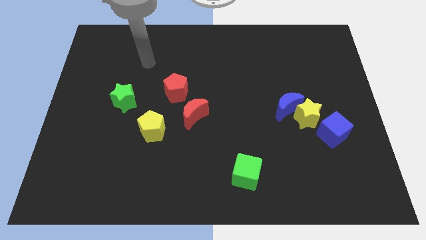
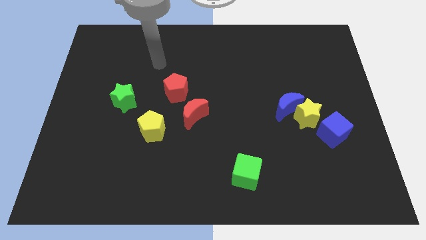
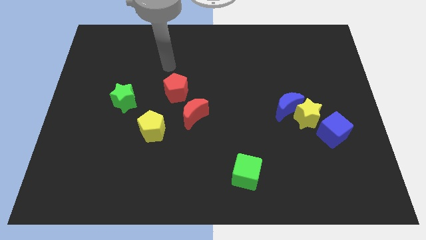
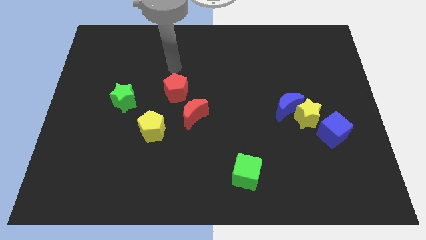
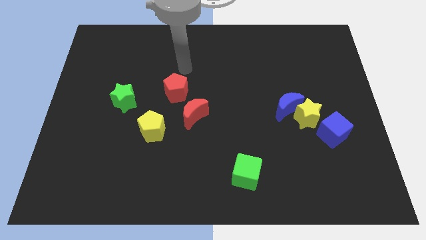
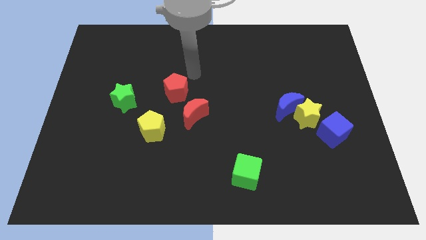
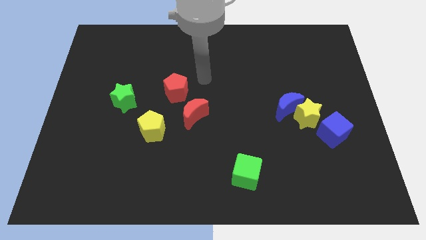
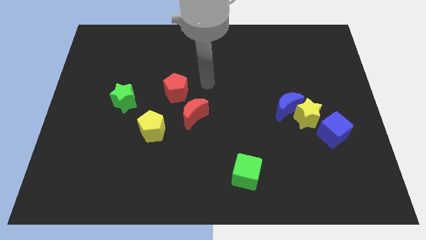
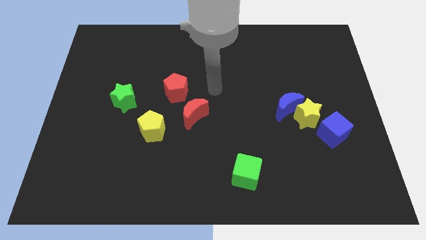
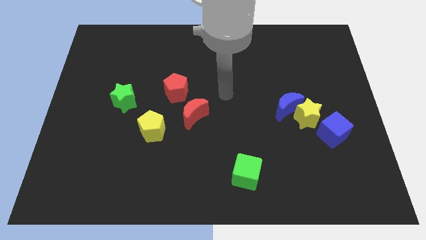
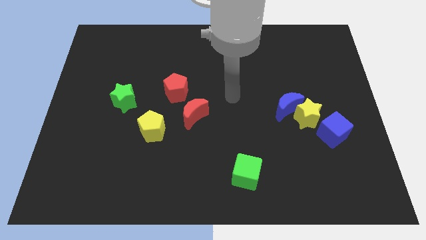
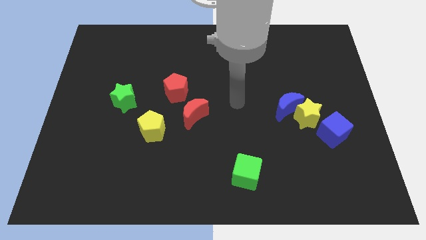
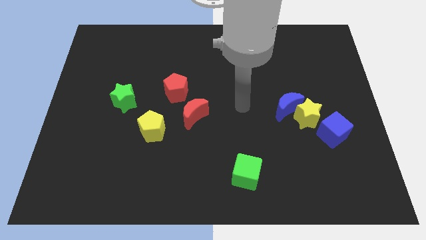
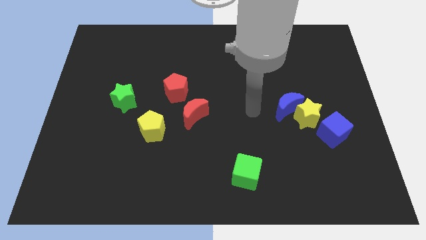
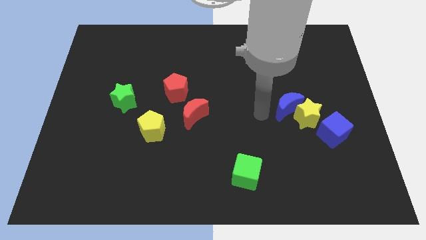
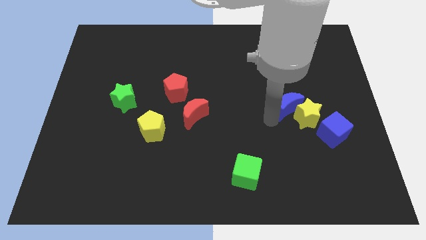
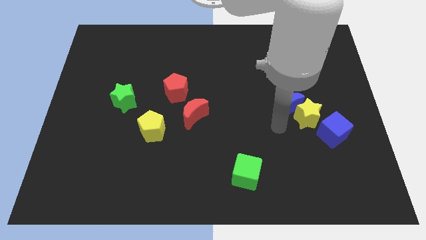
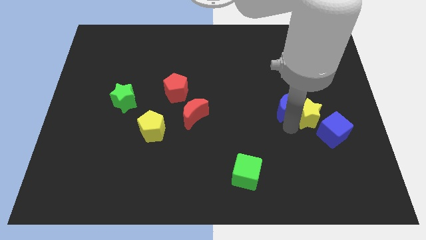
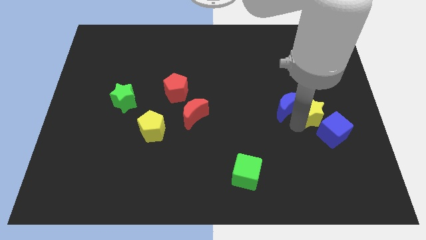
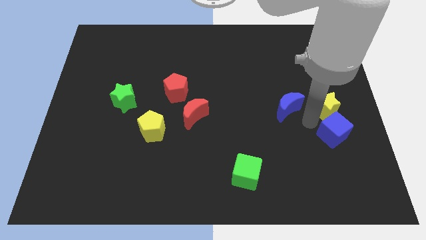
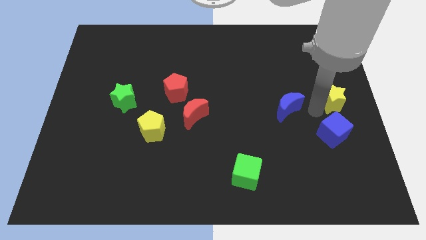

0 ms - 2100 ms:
pull the blue moon apart from the yellow star

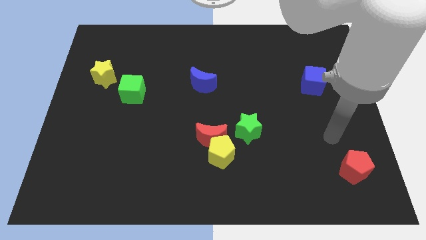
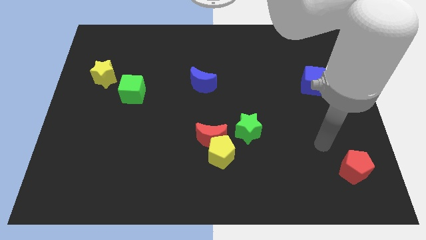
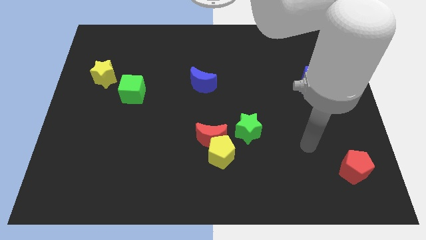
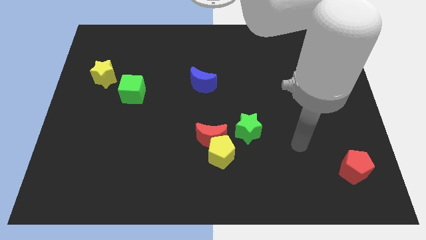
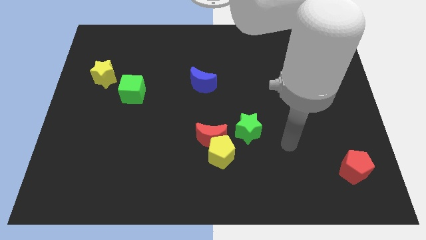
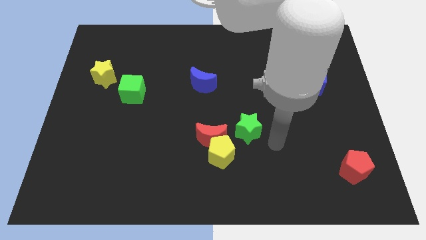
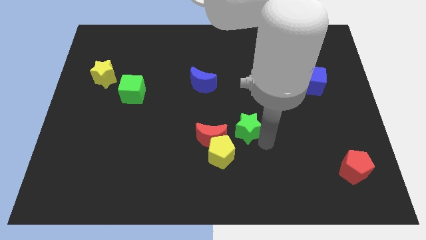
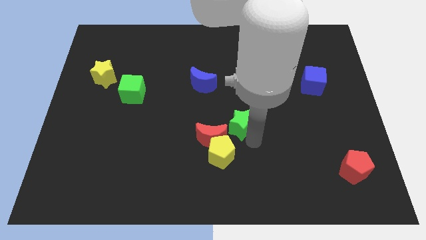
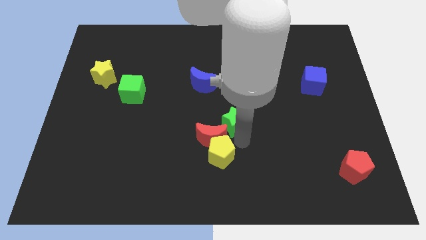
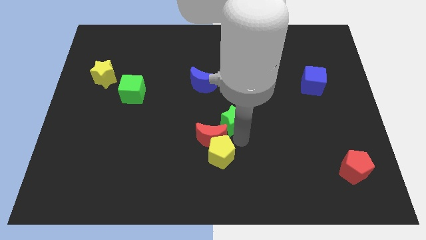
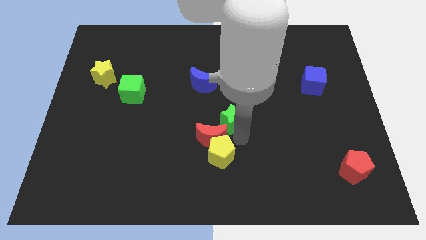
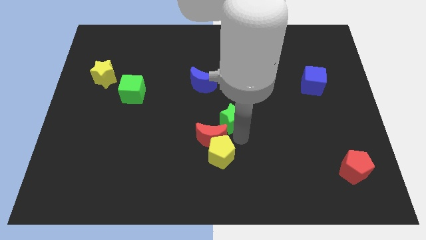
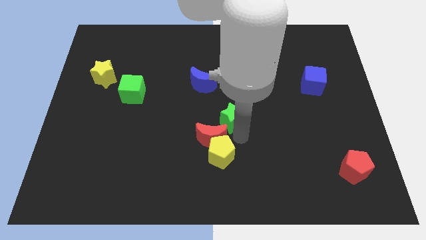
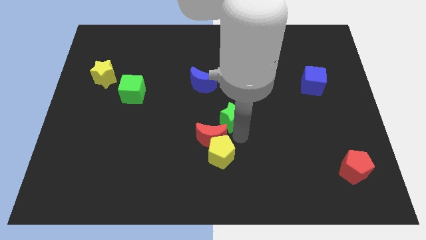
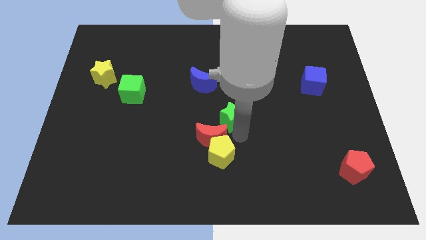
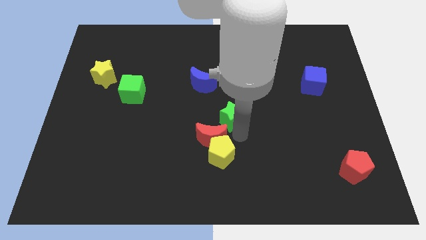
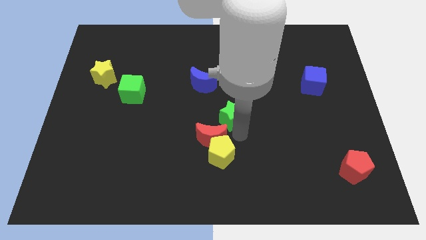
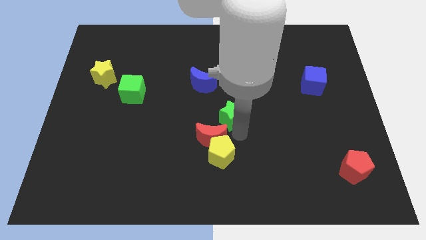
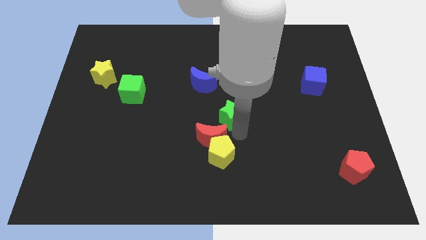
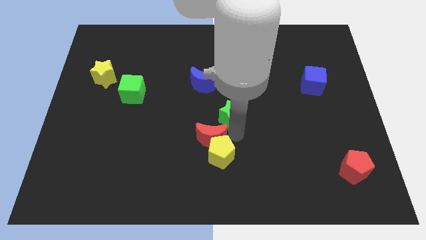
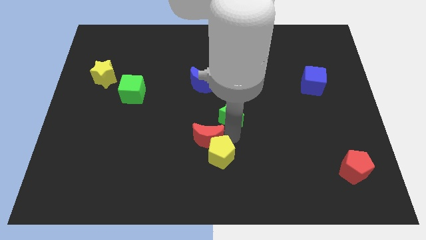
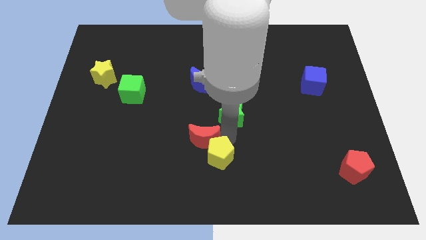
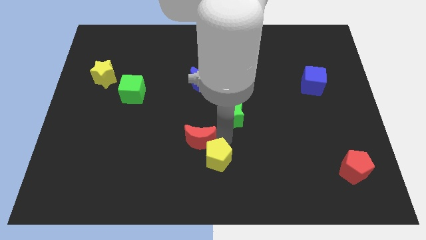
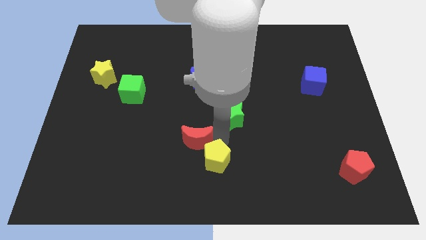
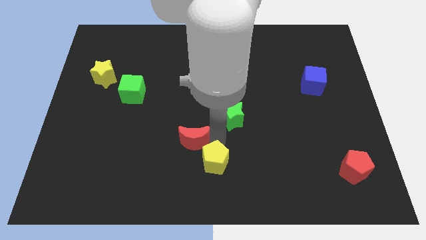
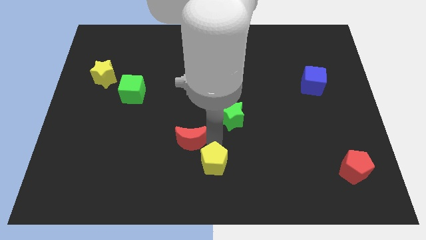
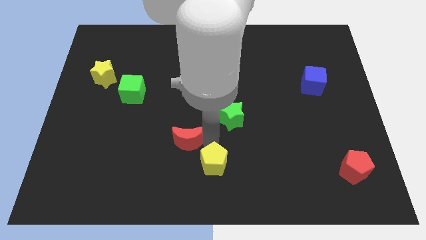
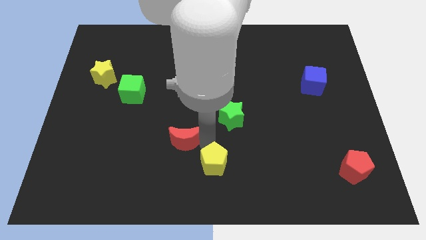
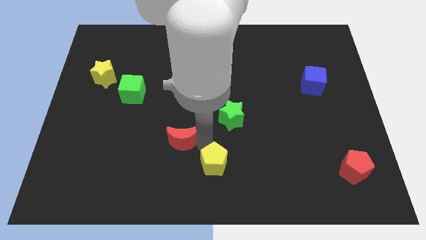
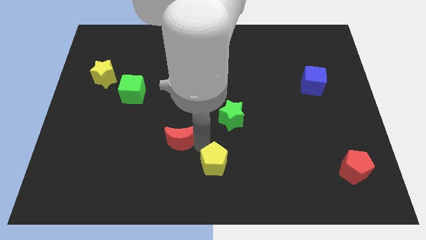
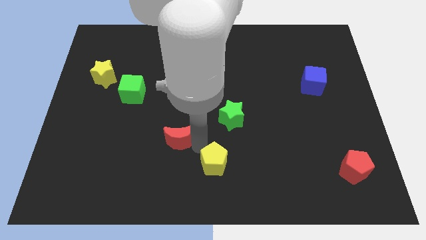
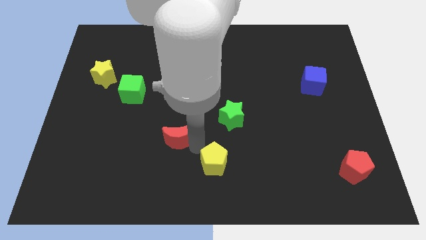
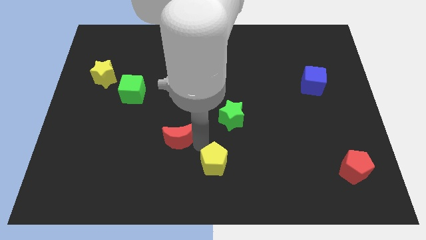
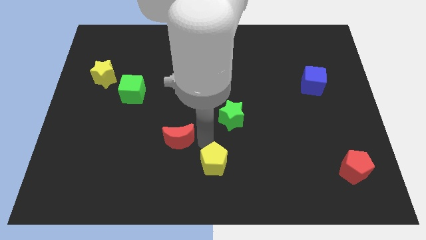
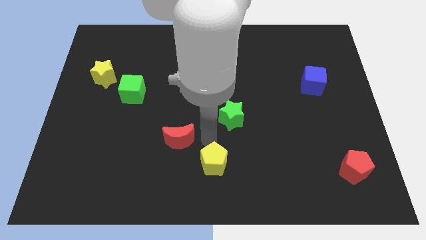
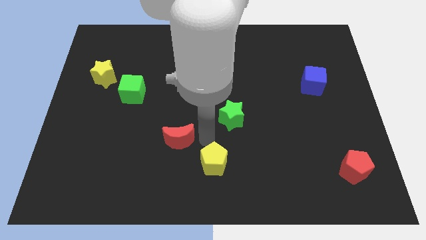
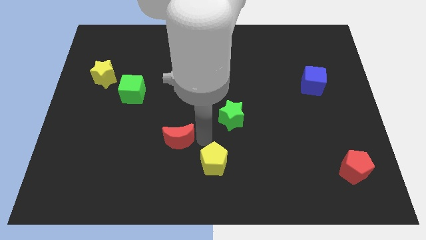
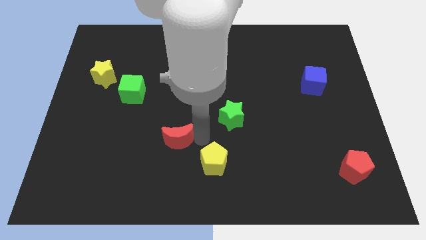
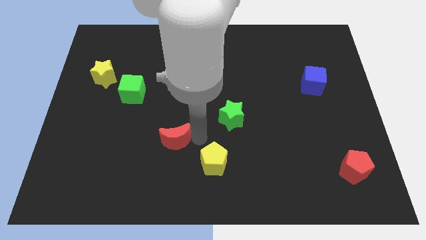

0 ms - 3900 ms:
move the red moon away from the yellow pentagon and green star

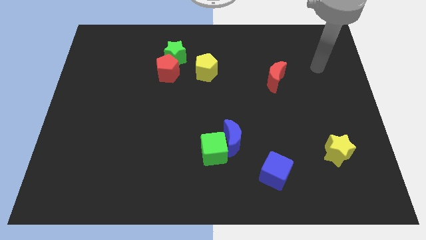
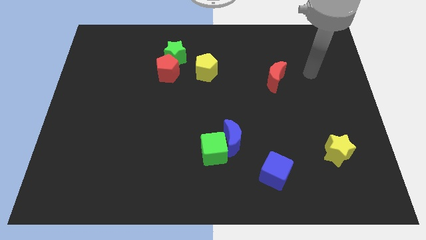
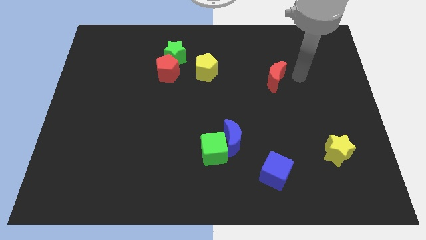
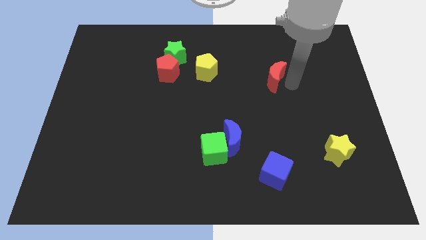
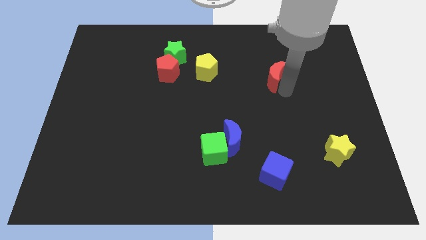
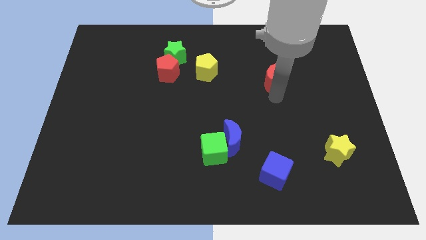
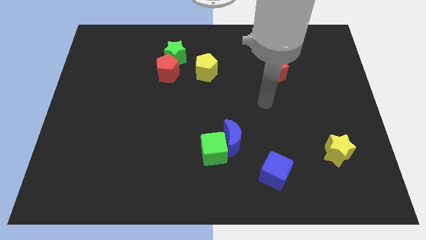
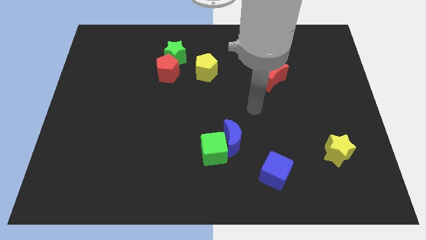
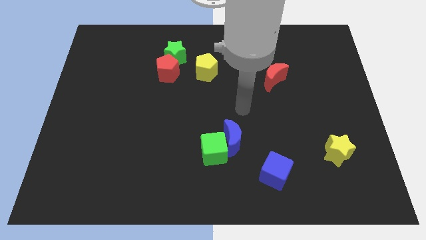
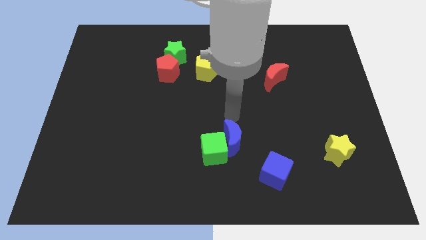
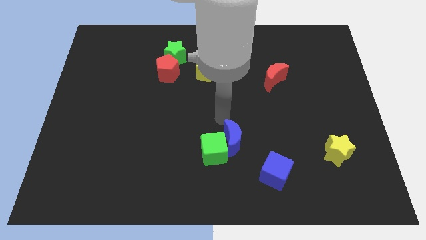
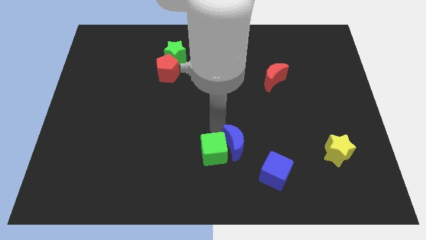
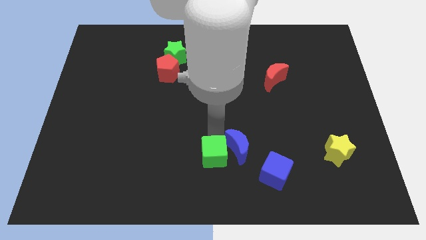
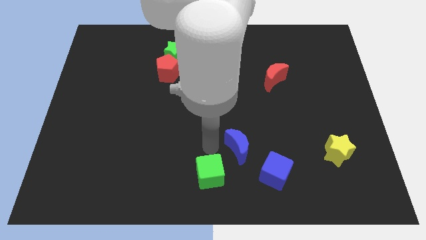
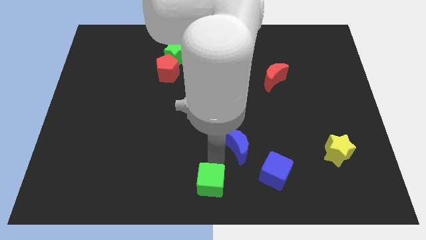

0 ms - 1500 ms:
pull the blue moon apart from the green cube

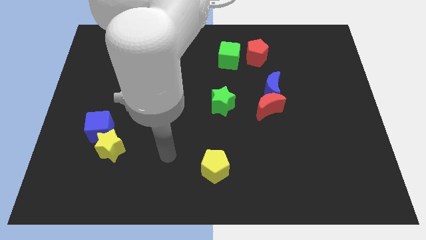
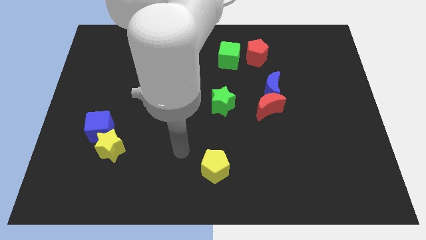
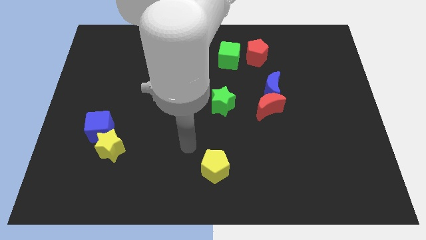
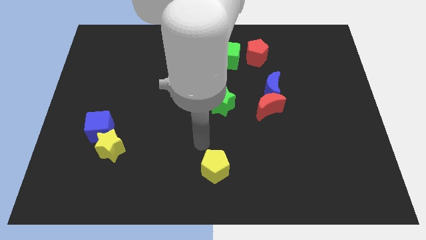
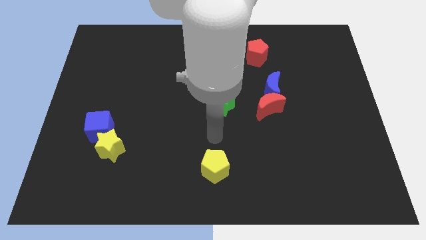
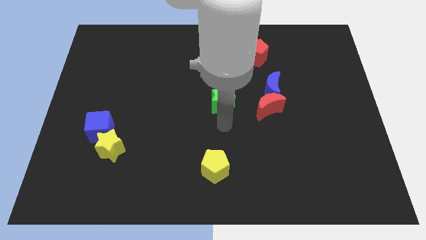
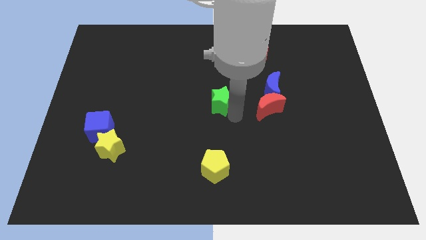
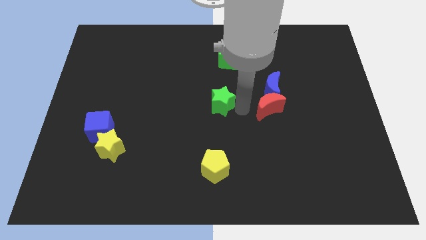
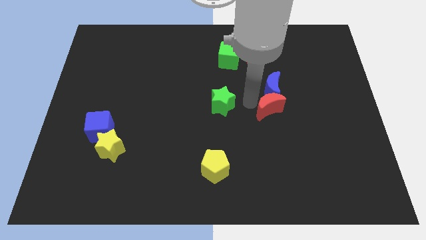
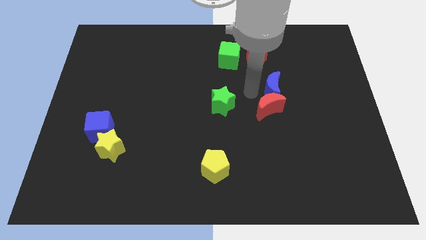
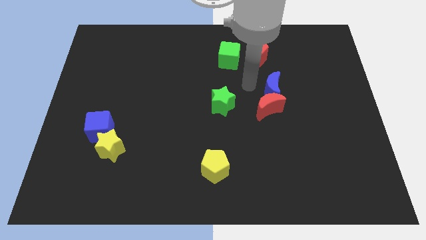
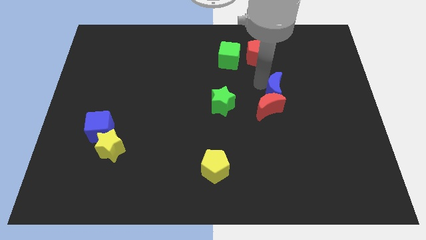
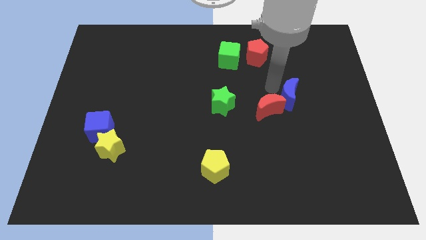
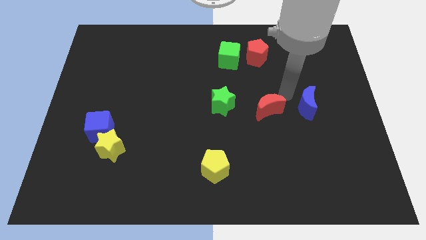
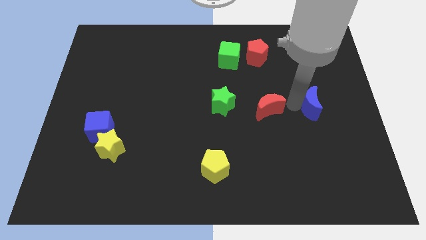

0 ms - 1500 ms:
move the red moon away from the blue moon

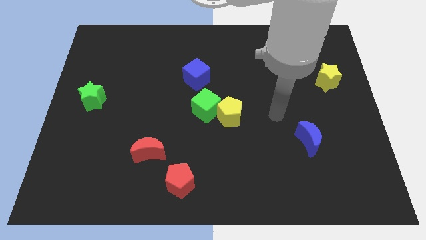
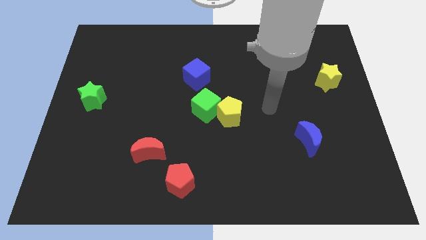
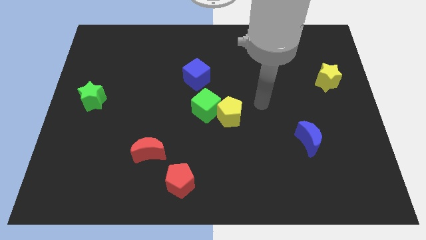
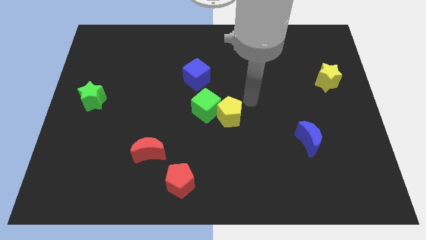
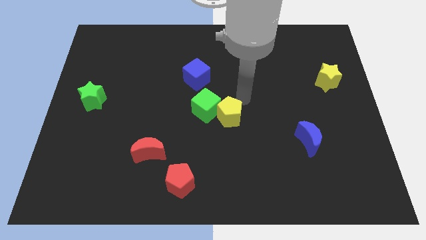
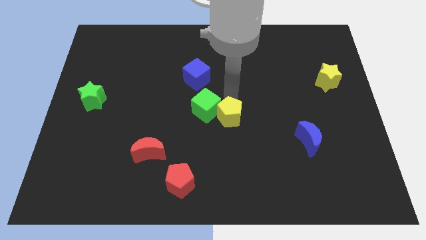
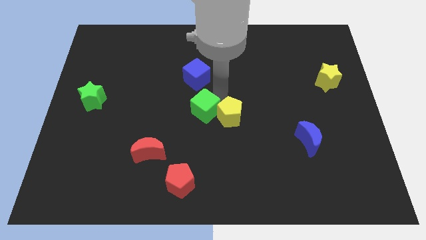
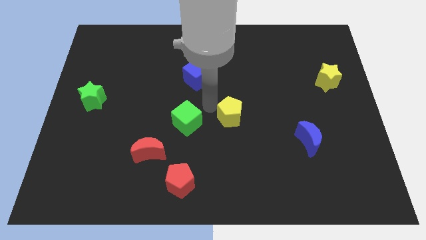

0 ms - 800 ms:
pull the yellow pentagon apart from the green cube
